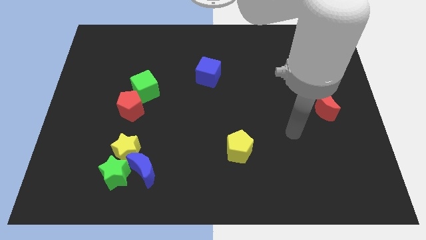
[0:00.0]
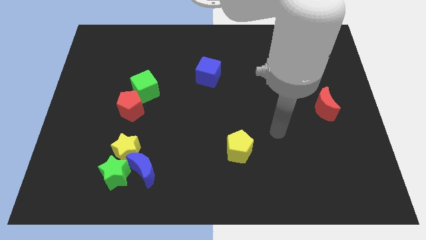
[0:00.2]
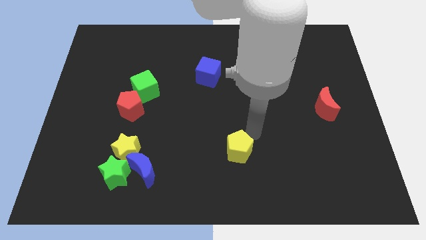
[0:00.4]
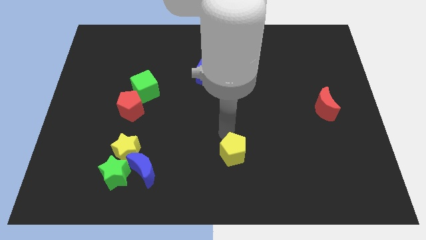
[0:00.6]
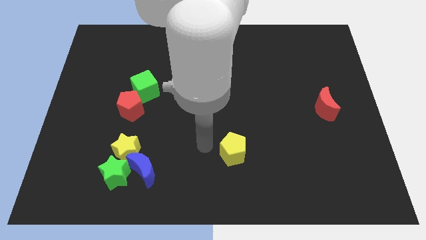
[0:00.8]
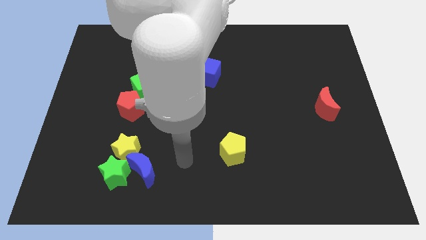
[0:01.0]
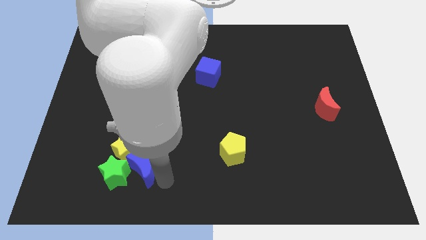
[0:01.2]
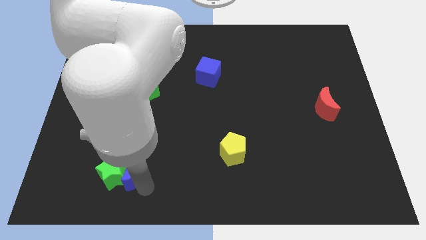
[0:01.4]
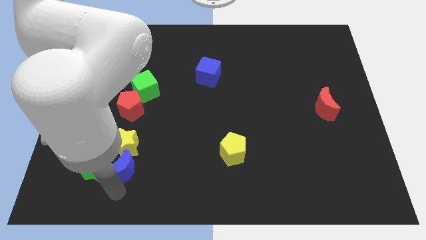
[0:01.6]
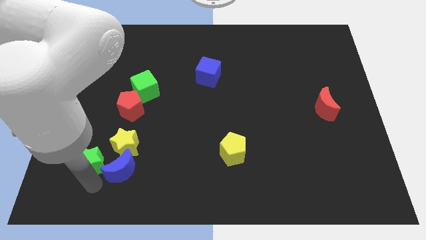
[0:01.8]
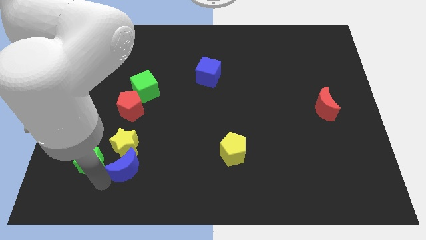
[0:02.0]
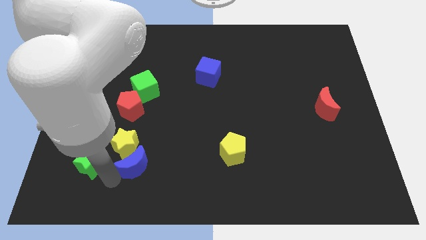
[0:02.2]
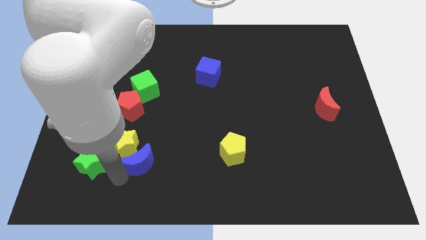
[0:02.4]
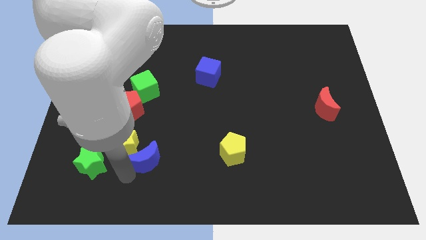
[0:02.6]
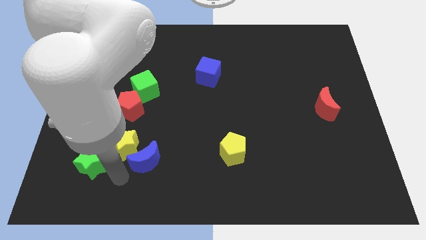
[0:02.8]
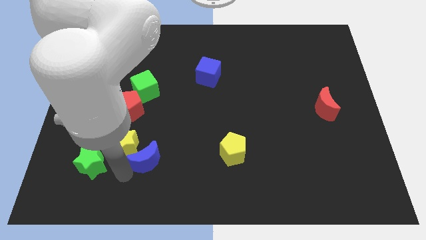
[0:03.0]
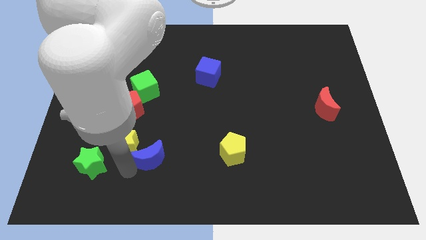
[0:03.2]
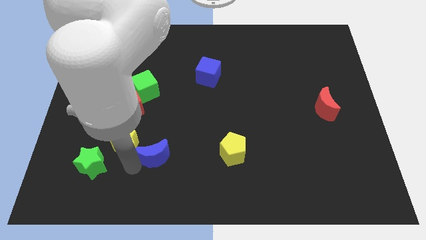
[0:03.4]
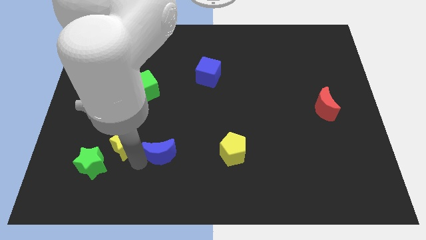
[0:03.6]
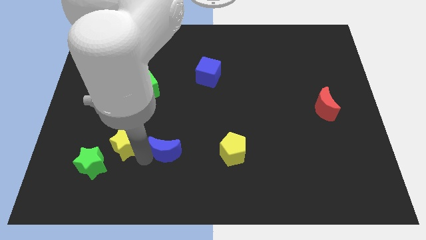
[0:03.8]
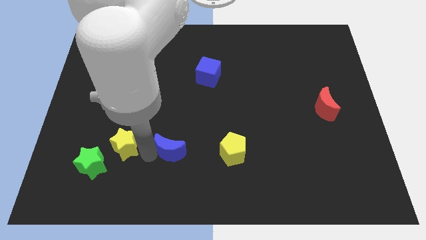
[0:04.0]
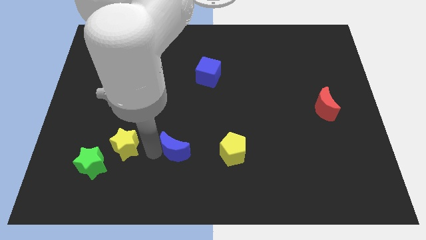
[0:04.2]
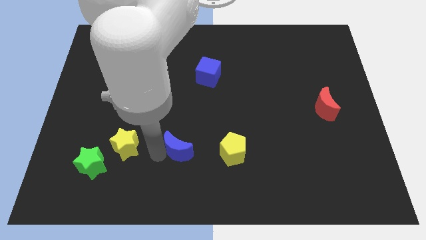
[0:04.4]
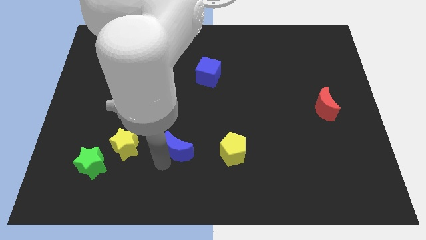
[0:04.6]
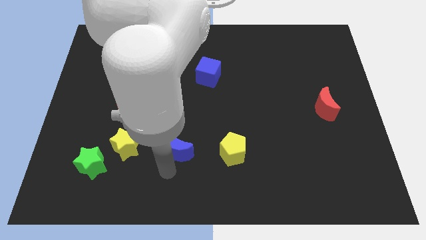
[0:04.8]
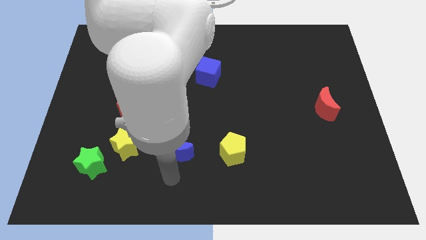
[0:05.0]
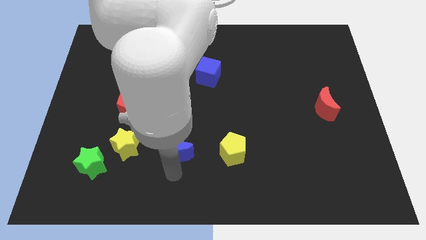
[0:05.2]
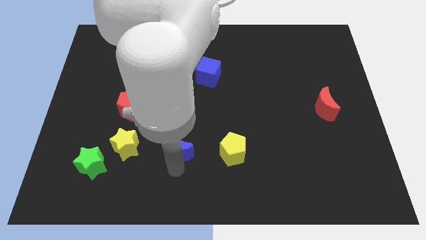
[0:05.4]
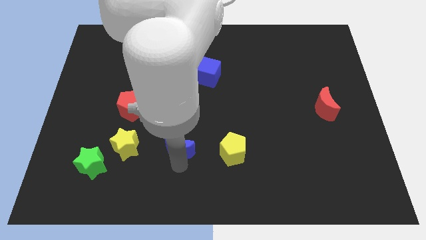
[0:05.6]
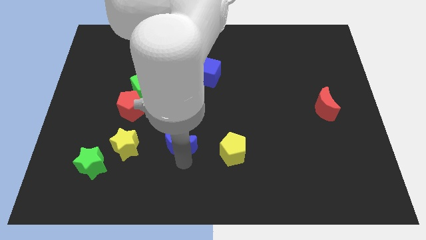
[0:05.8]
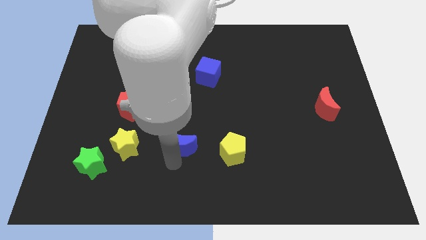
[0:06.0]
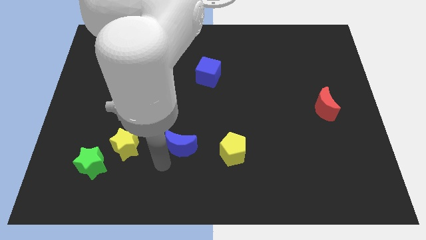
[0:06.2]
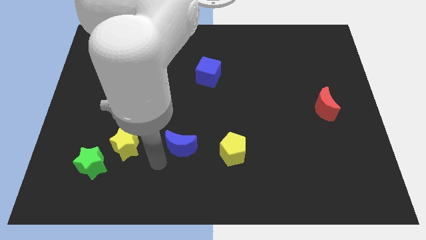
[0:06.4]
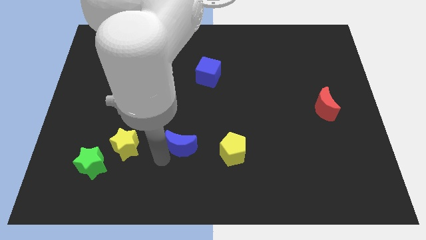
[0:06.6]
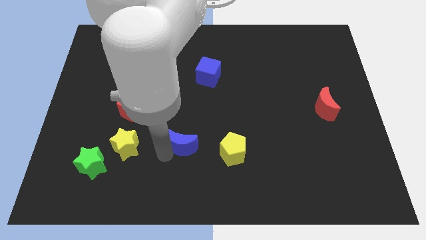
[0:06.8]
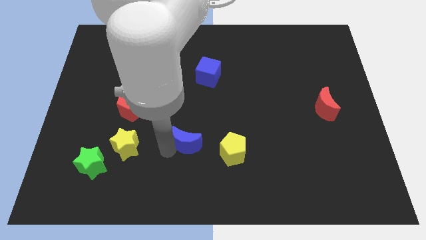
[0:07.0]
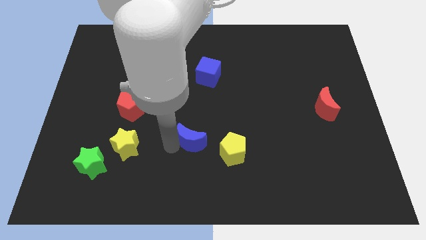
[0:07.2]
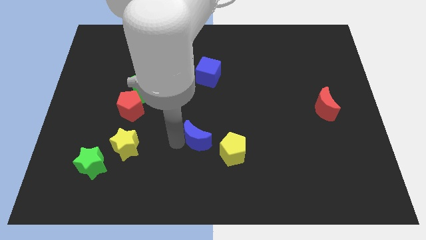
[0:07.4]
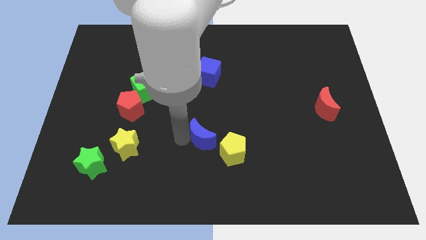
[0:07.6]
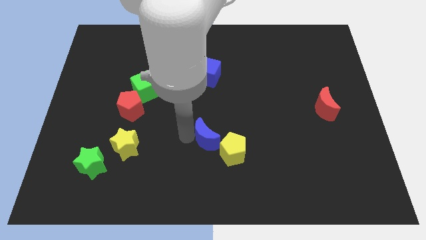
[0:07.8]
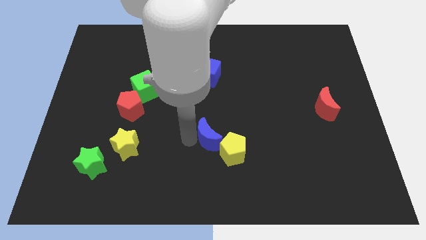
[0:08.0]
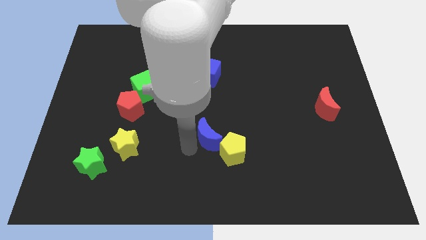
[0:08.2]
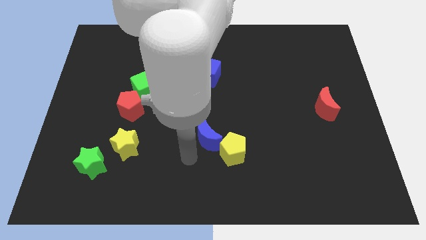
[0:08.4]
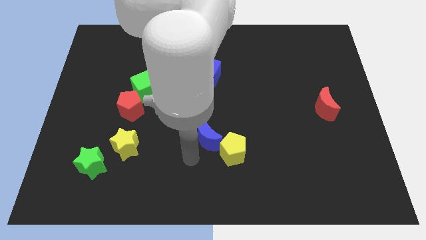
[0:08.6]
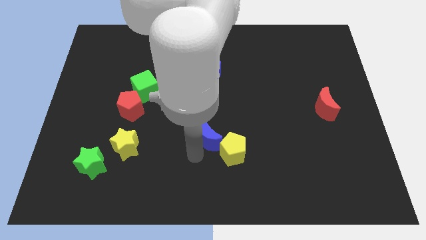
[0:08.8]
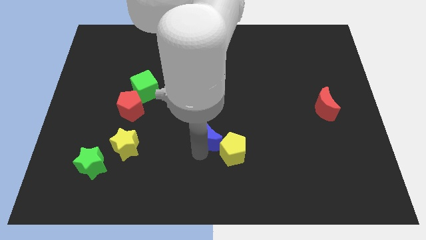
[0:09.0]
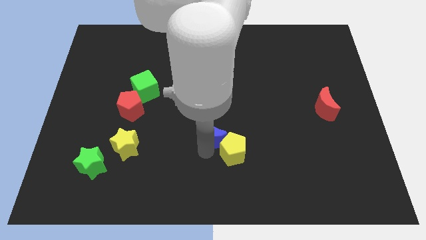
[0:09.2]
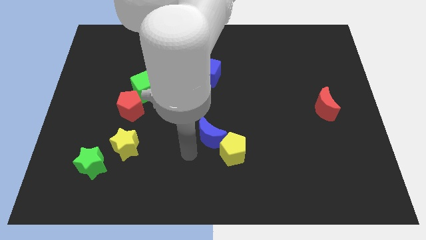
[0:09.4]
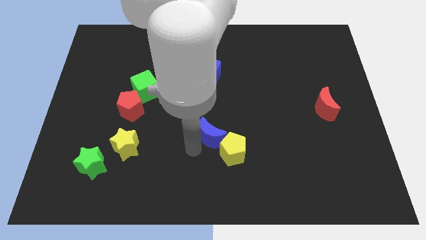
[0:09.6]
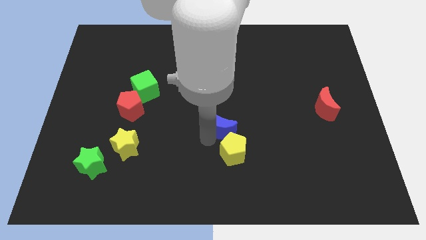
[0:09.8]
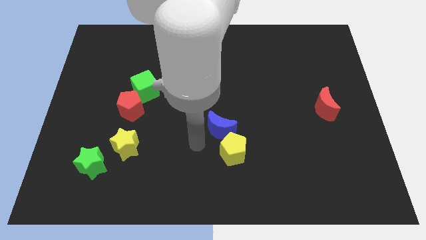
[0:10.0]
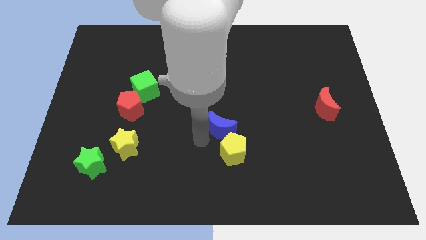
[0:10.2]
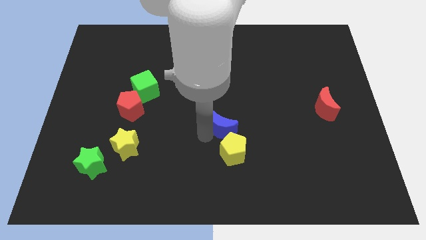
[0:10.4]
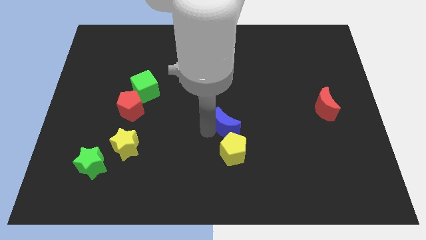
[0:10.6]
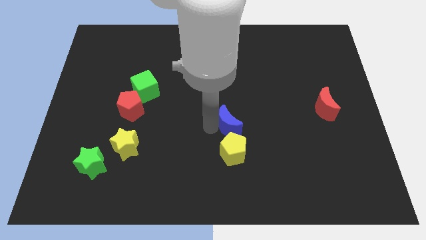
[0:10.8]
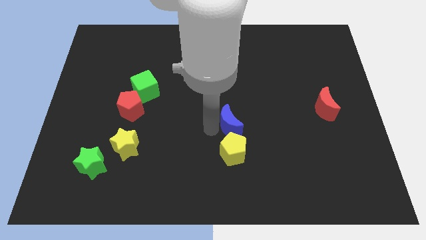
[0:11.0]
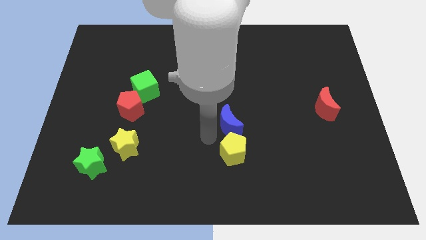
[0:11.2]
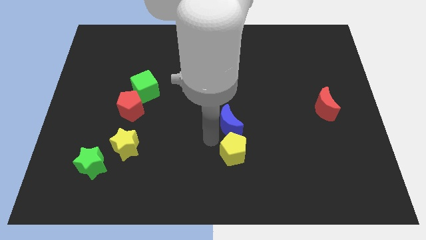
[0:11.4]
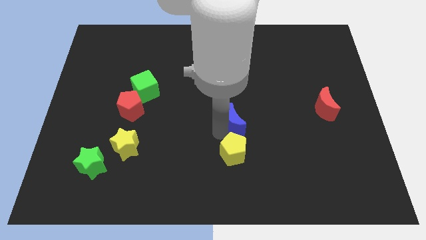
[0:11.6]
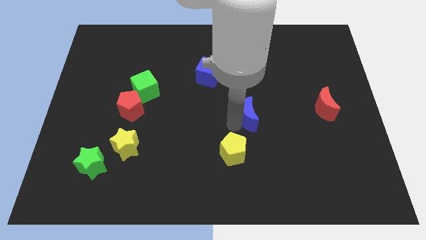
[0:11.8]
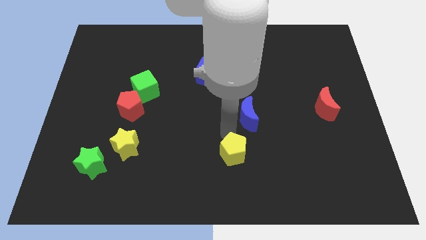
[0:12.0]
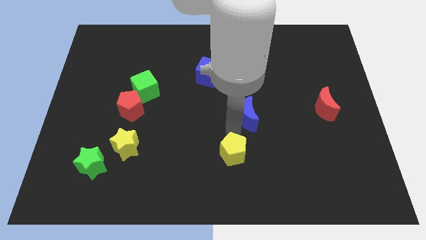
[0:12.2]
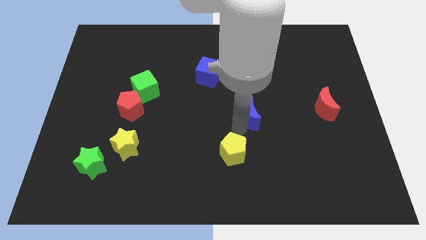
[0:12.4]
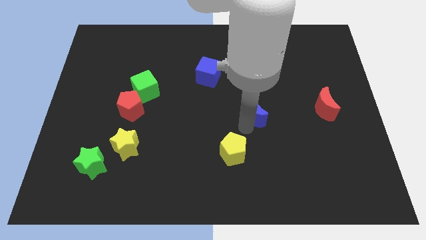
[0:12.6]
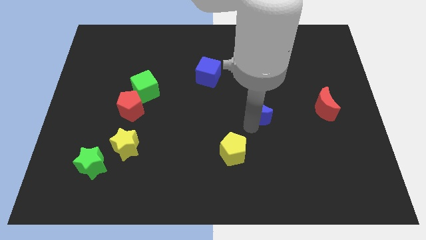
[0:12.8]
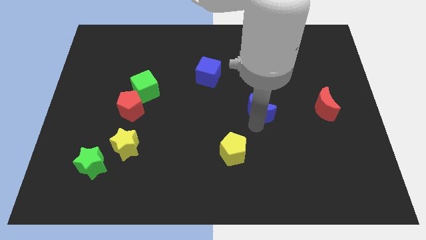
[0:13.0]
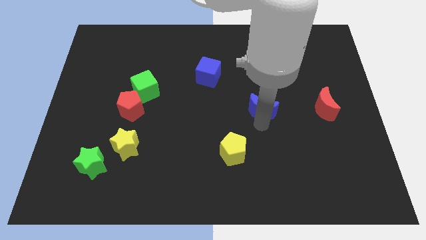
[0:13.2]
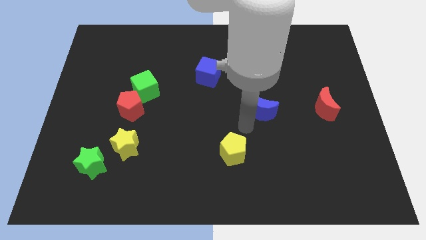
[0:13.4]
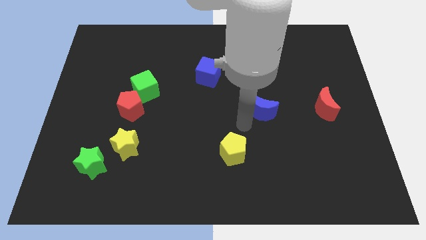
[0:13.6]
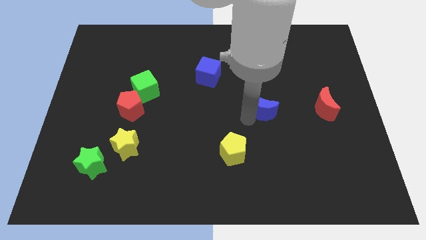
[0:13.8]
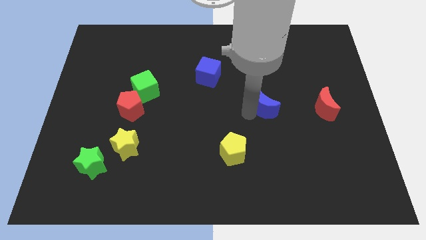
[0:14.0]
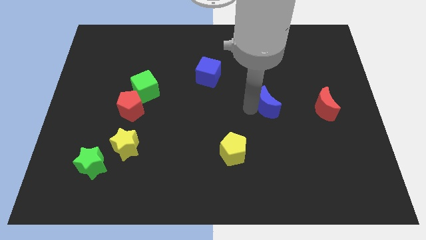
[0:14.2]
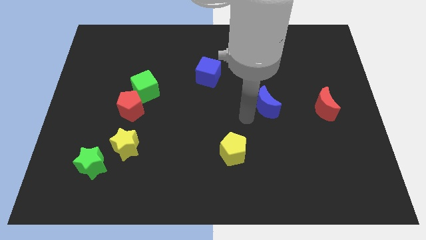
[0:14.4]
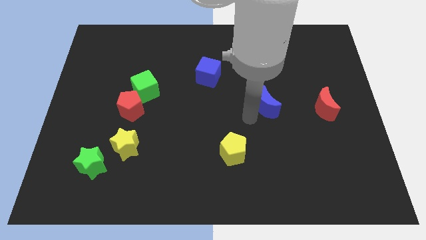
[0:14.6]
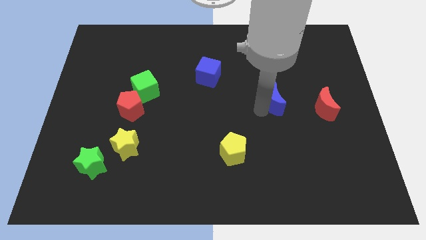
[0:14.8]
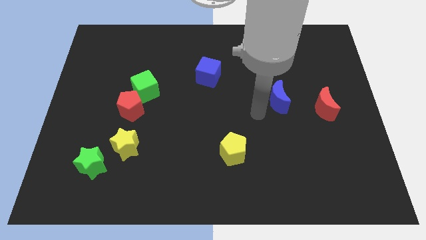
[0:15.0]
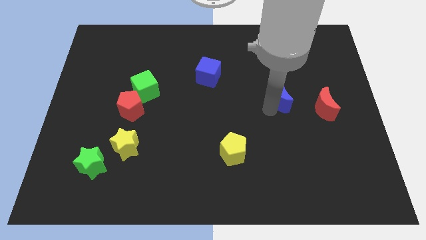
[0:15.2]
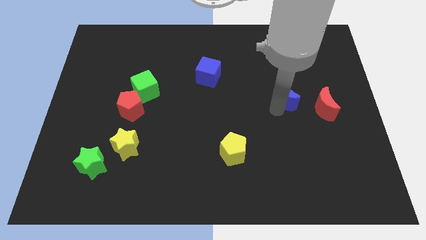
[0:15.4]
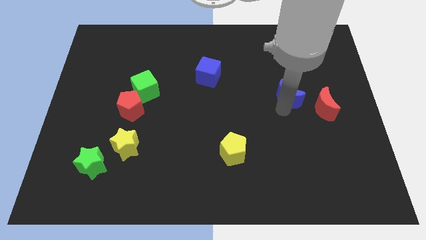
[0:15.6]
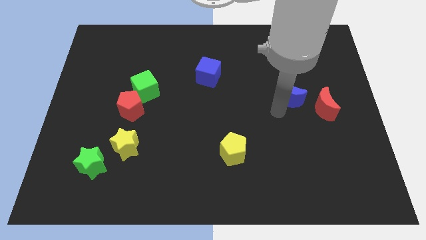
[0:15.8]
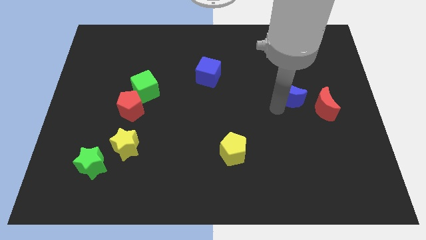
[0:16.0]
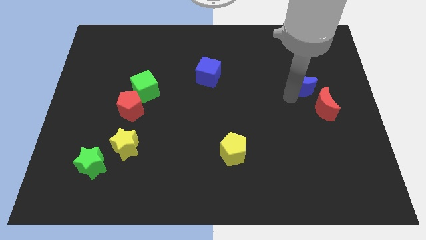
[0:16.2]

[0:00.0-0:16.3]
put the blue moon above the red moon
